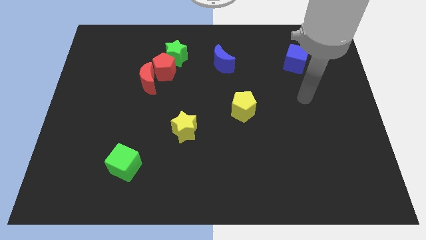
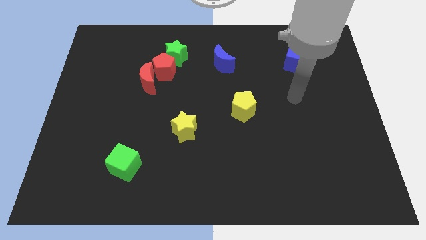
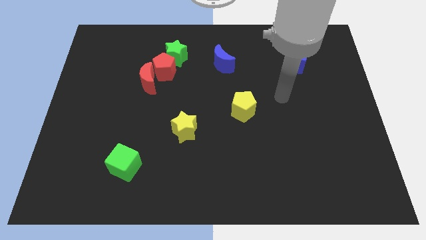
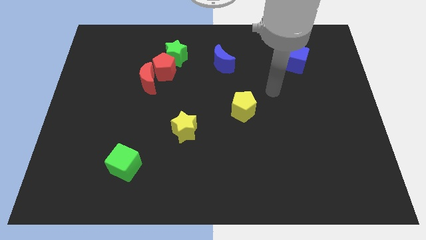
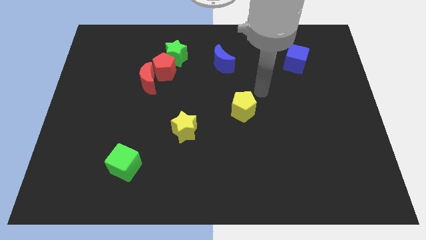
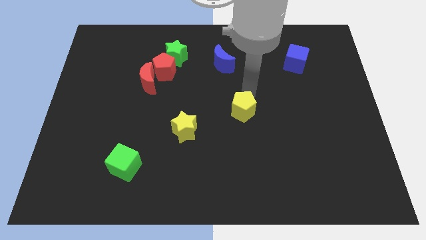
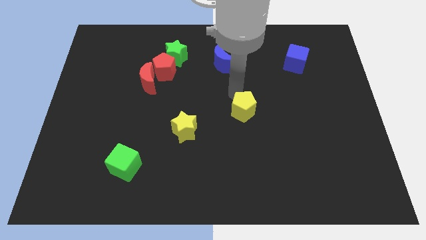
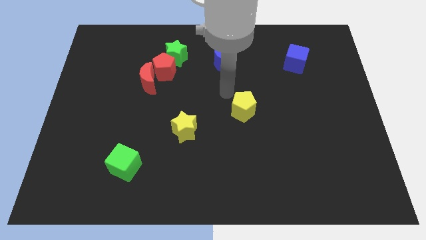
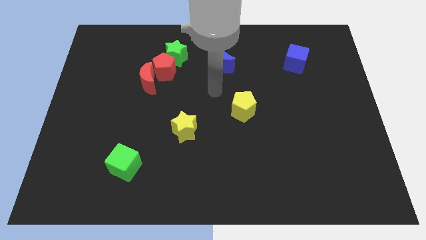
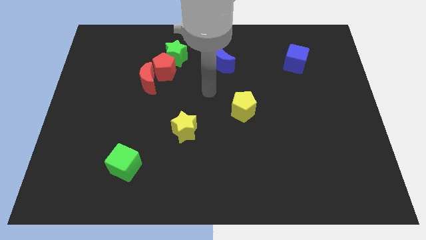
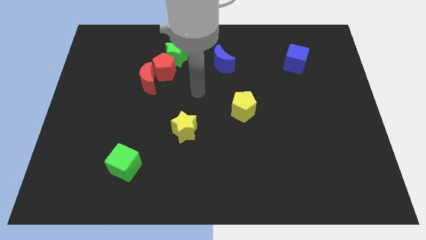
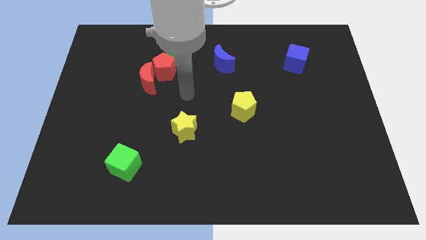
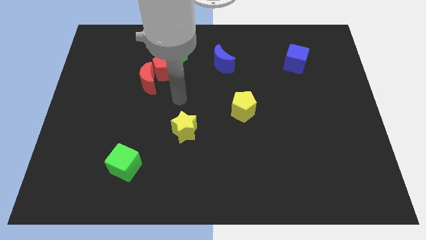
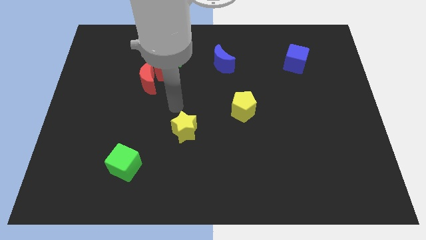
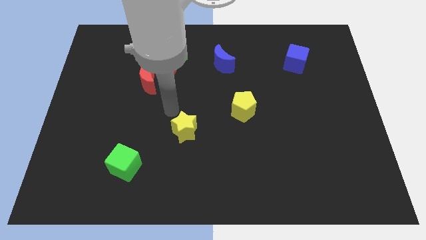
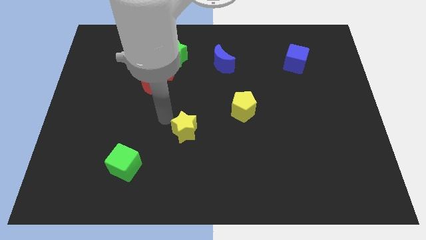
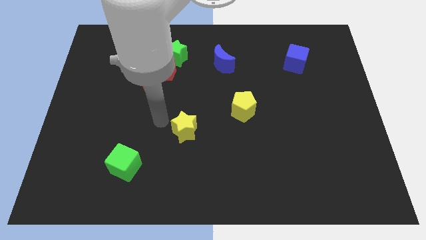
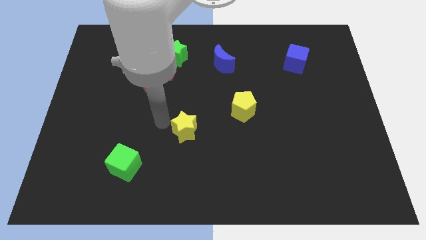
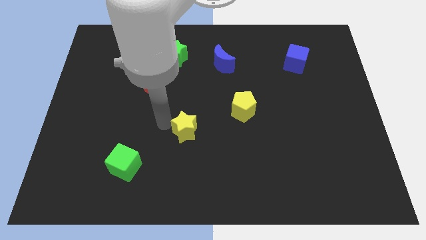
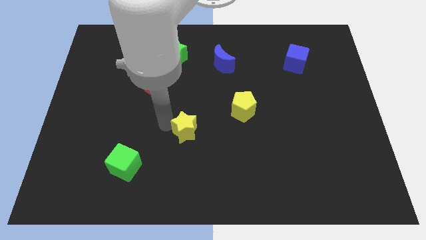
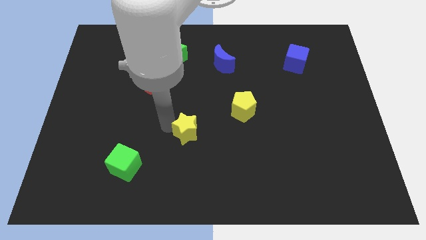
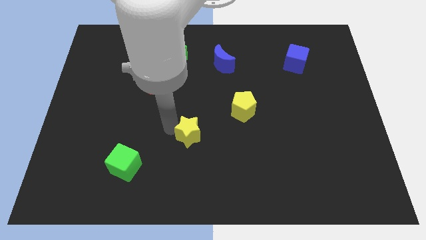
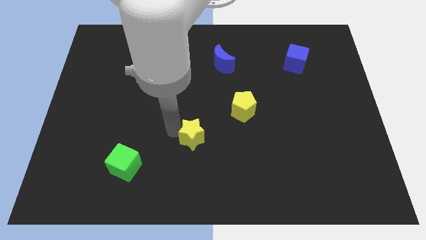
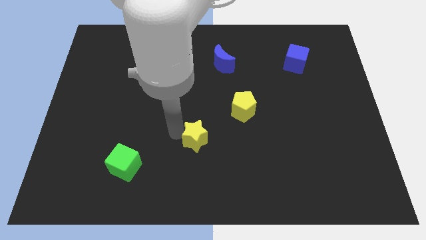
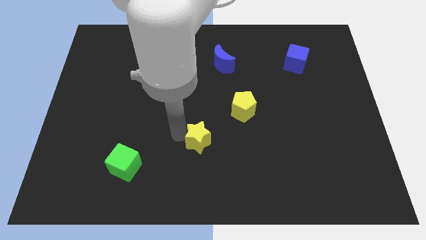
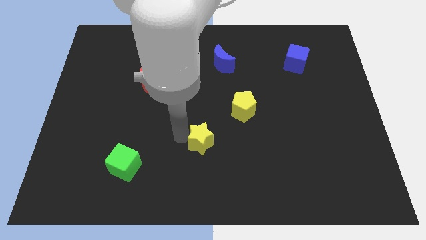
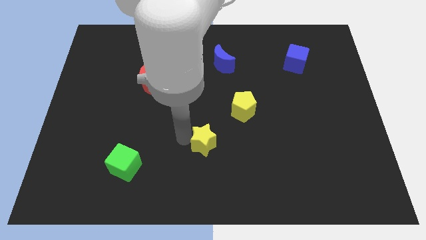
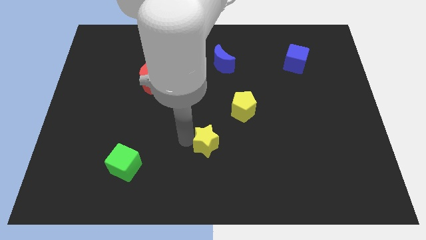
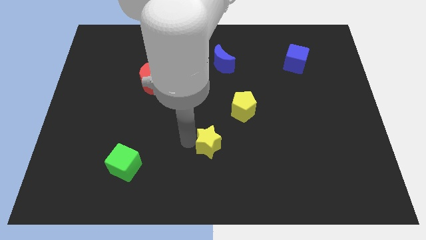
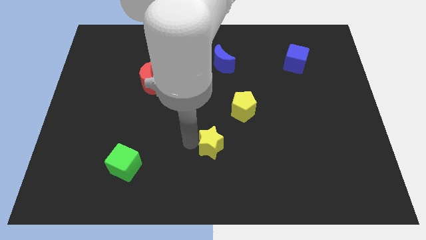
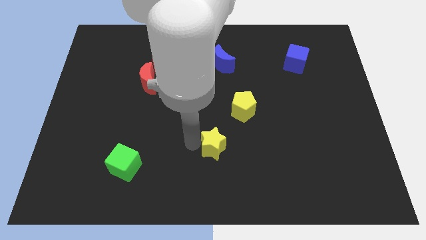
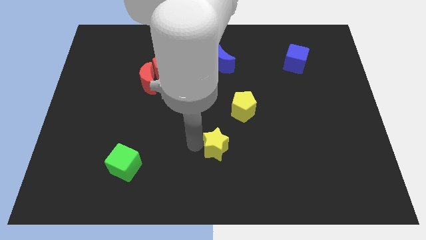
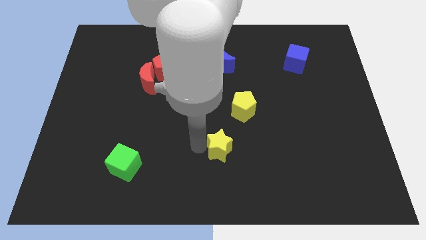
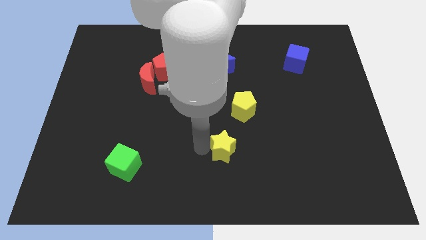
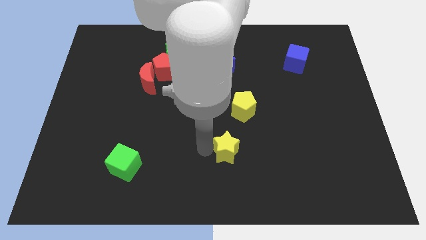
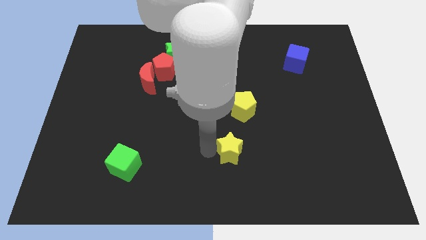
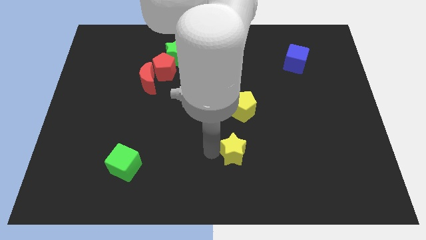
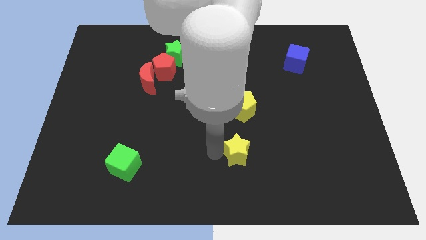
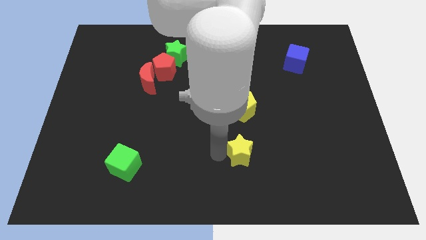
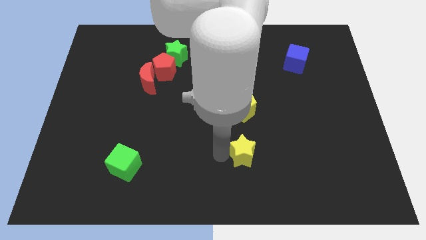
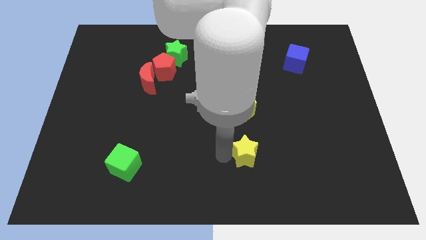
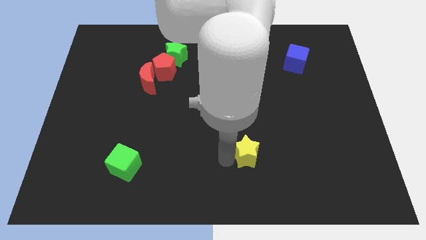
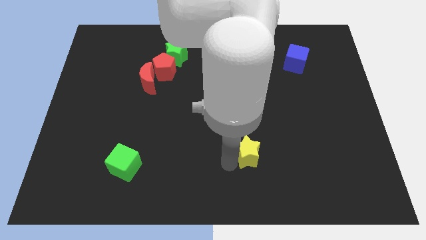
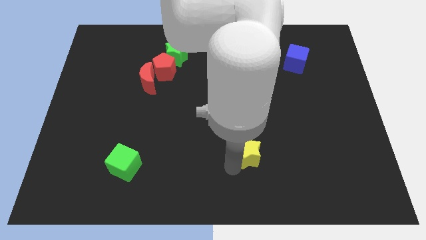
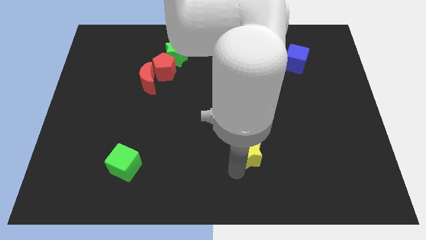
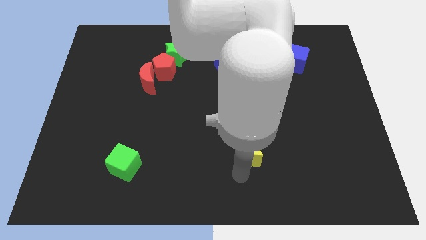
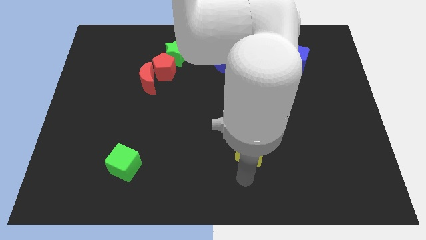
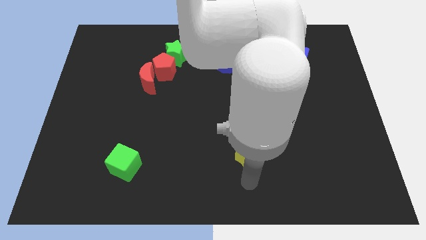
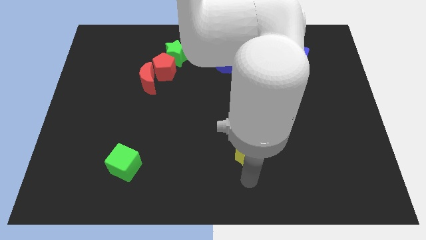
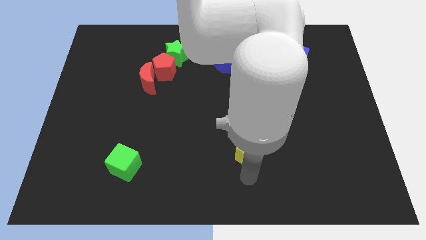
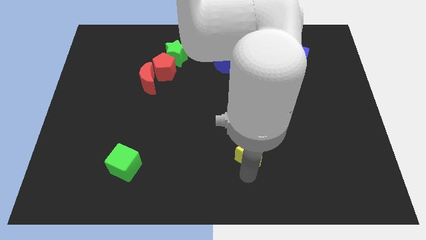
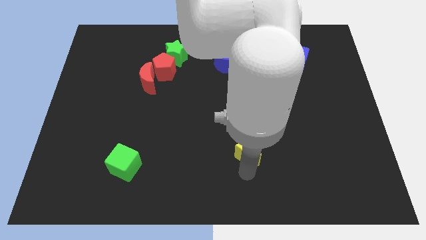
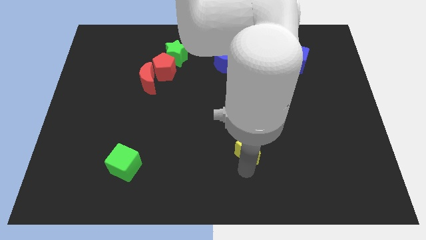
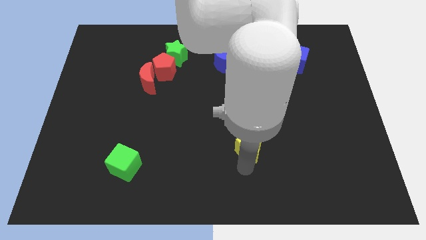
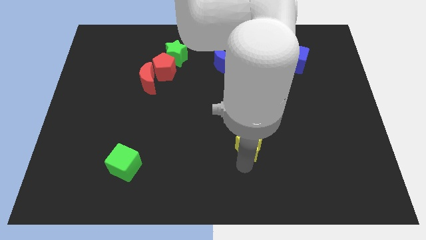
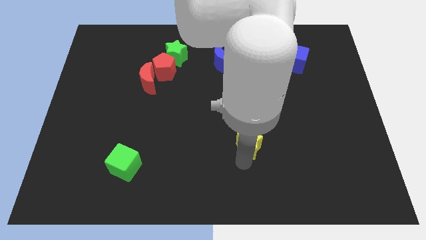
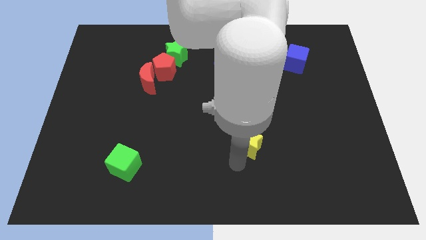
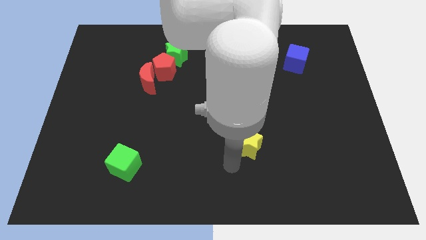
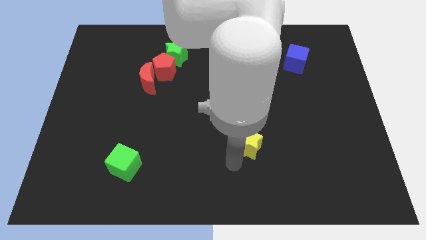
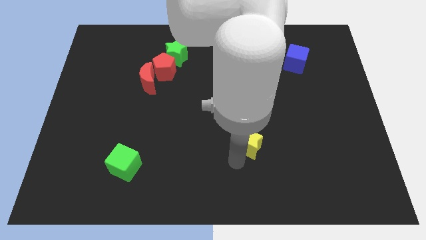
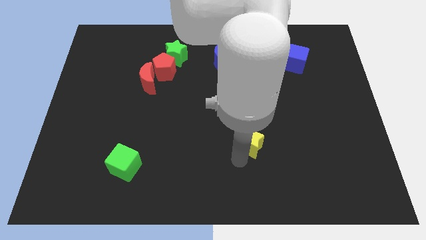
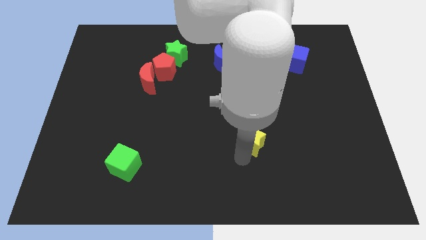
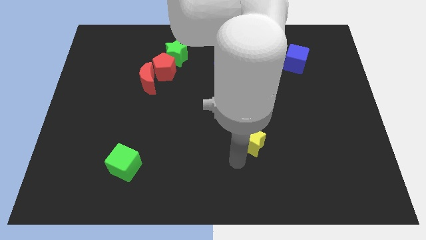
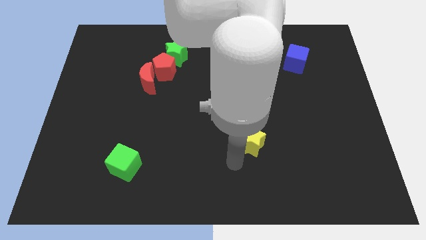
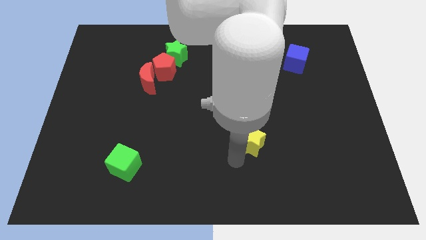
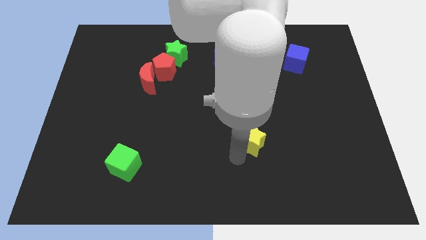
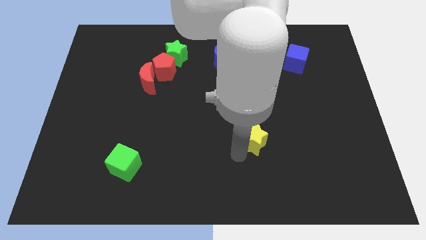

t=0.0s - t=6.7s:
put the yellow star diagonally down and to the right of the yellow pentagon

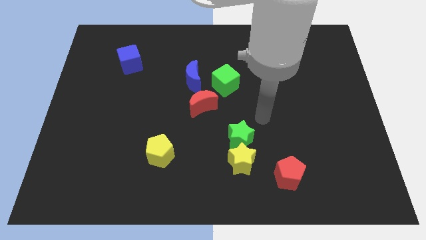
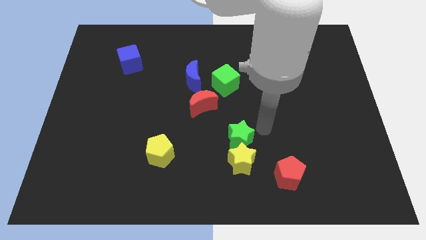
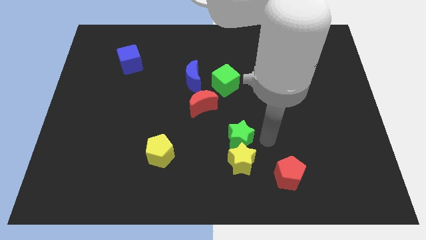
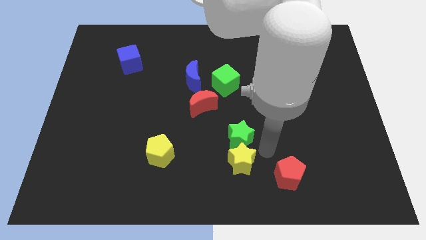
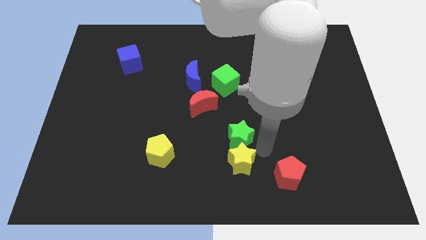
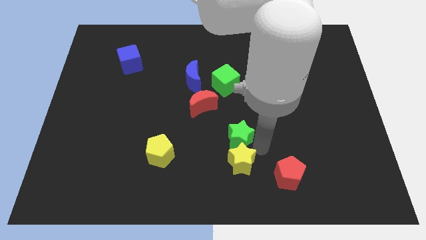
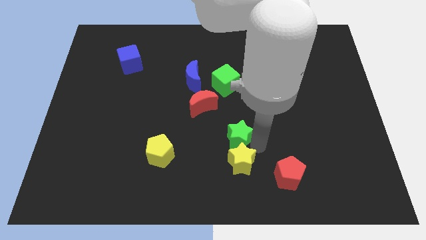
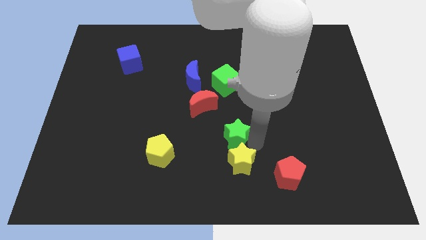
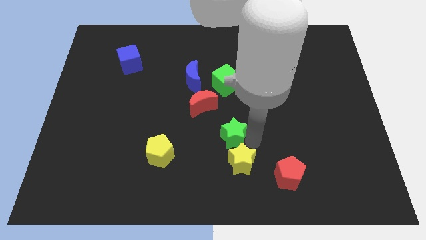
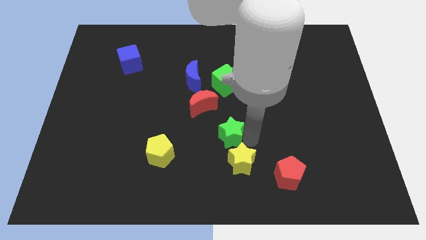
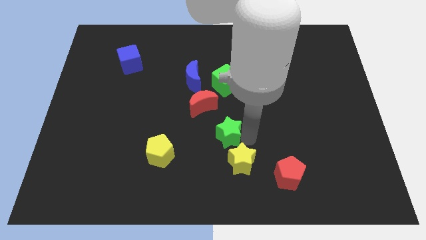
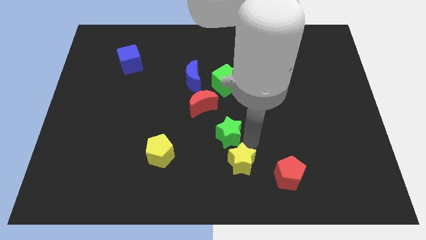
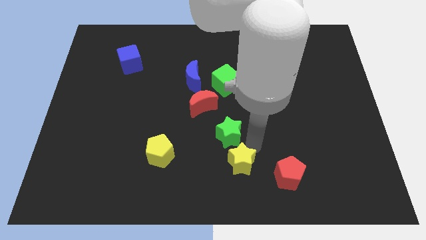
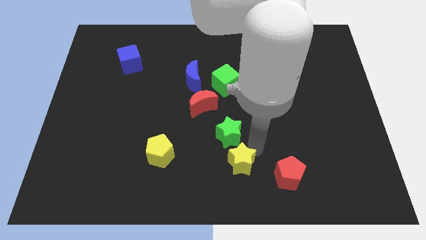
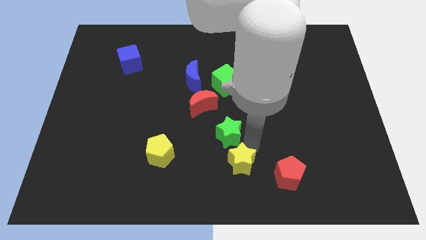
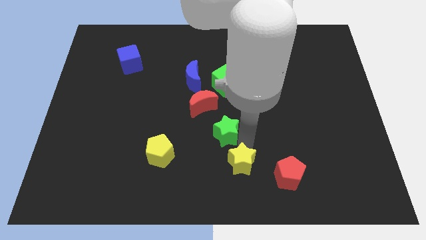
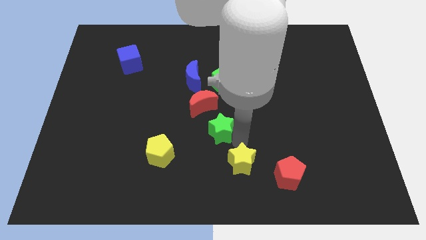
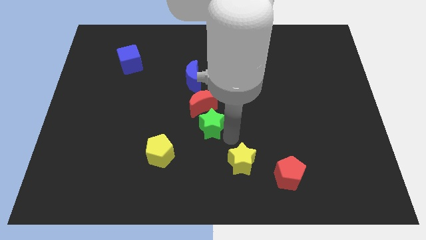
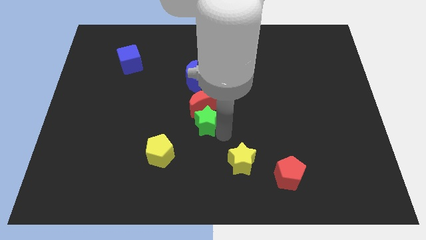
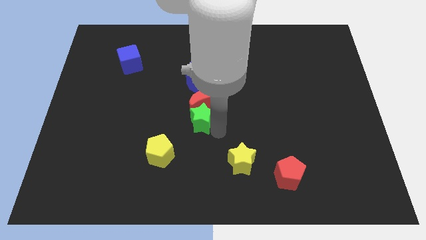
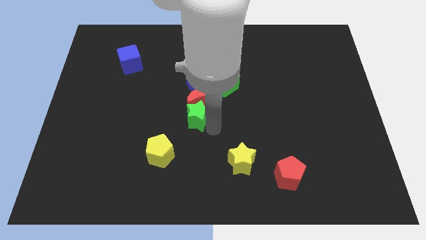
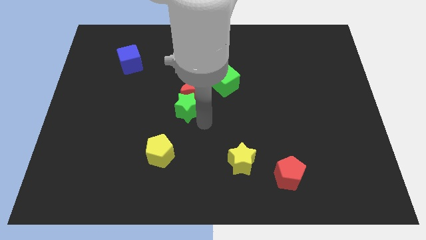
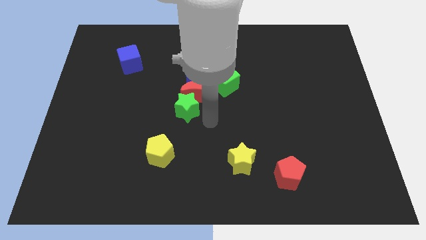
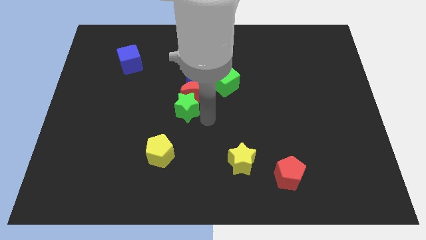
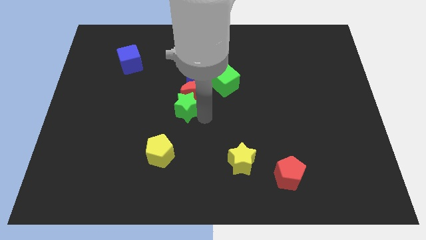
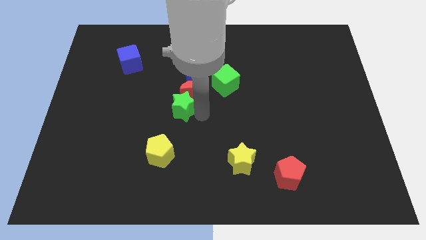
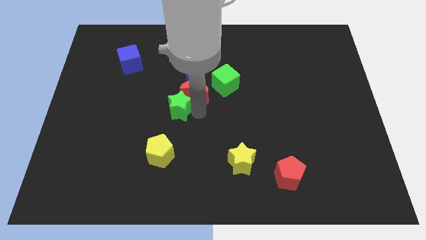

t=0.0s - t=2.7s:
move the green star to the left side of the red moon
